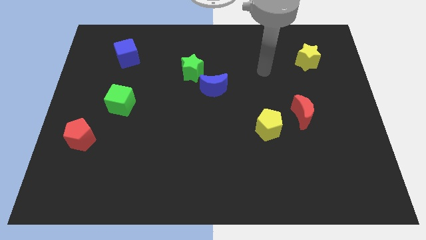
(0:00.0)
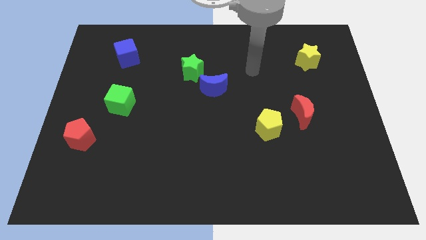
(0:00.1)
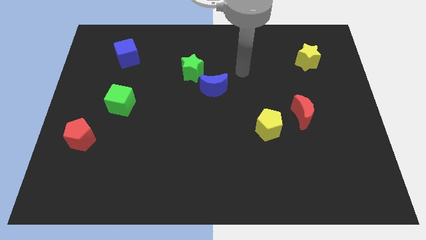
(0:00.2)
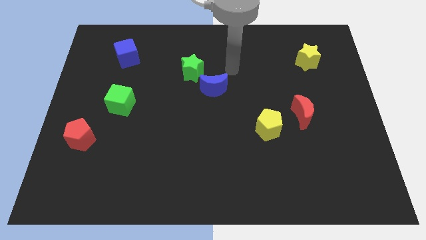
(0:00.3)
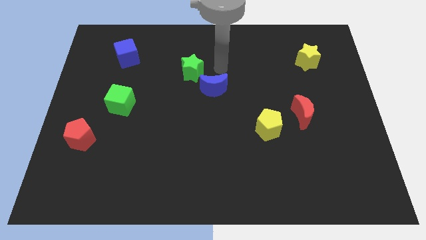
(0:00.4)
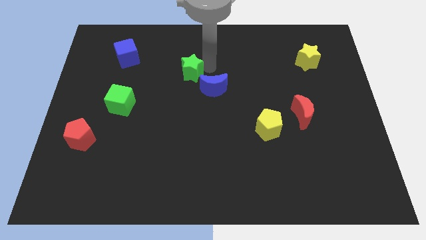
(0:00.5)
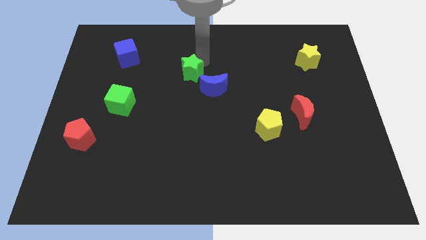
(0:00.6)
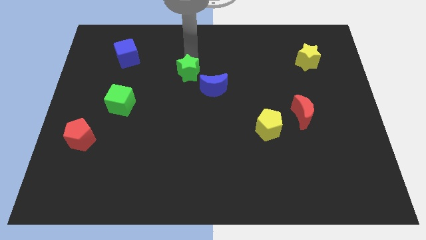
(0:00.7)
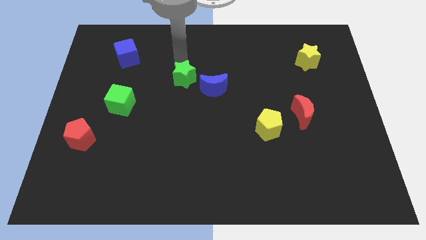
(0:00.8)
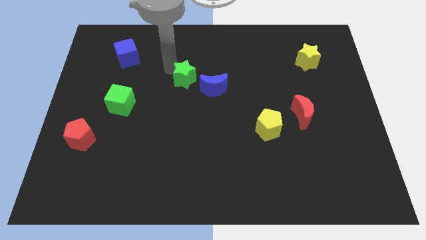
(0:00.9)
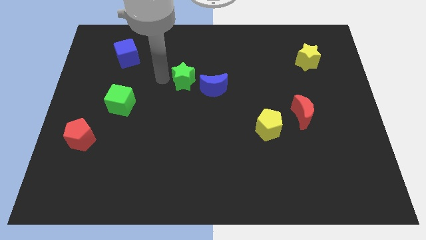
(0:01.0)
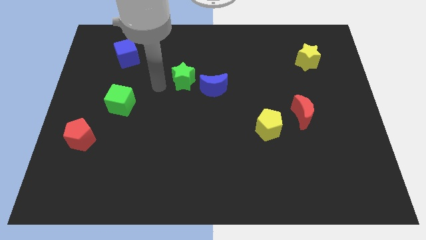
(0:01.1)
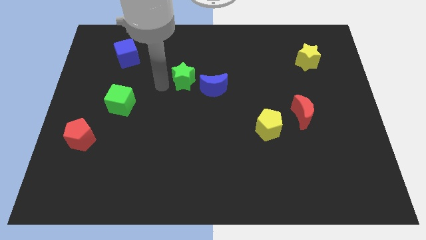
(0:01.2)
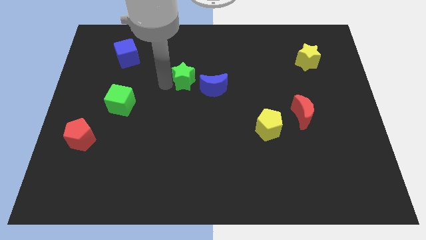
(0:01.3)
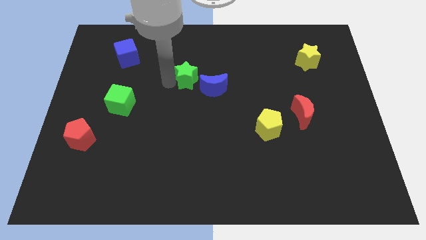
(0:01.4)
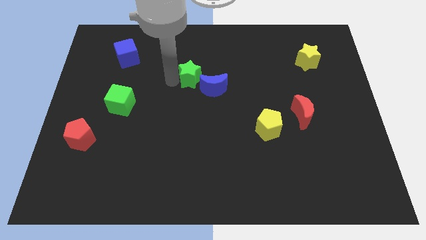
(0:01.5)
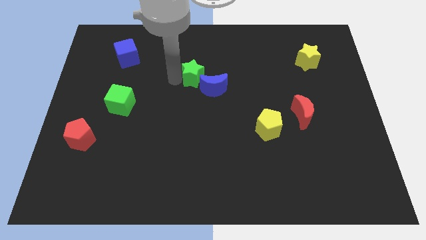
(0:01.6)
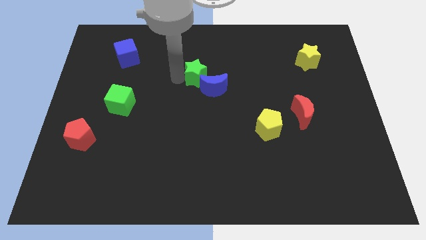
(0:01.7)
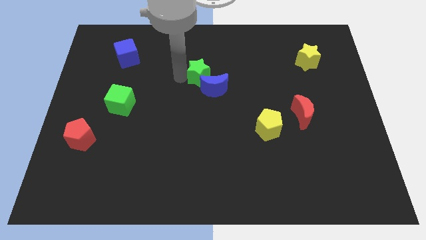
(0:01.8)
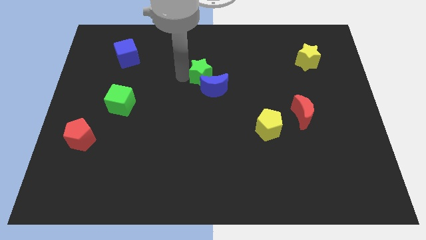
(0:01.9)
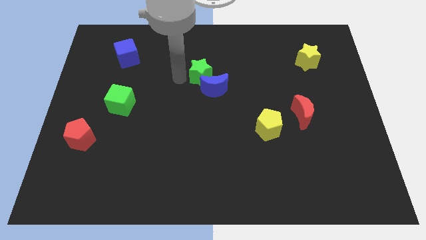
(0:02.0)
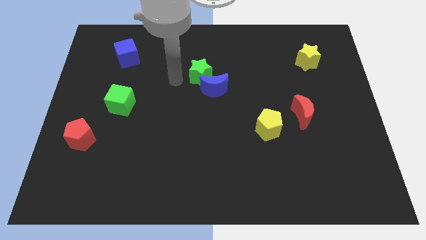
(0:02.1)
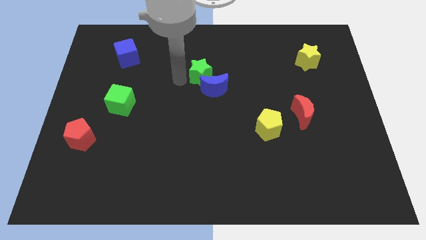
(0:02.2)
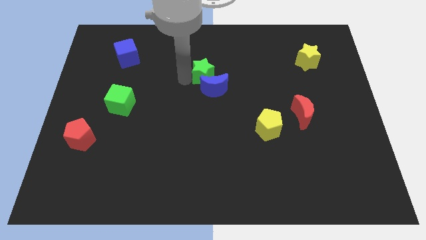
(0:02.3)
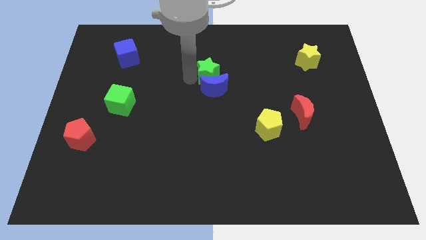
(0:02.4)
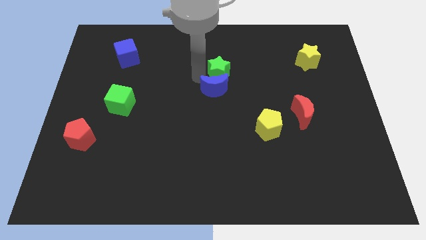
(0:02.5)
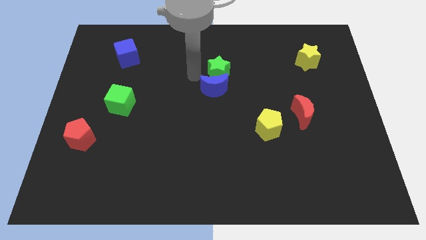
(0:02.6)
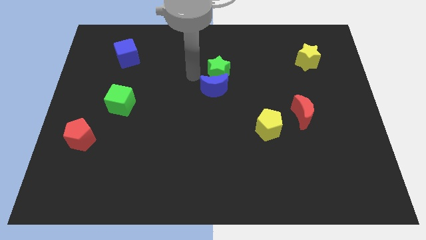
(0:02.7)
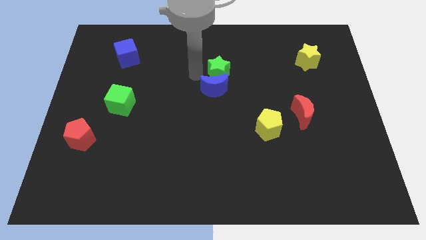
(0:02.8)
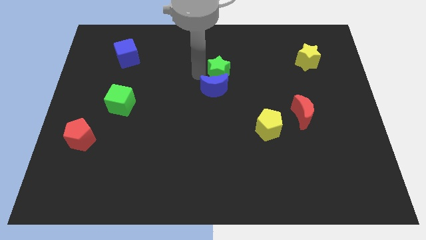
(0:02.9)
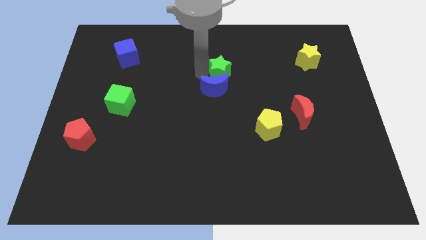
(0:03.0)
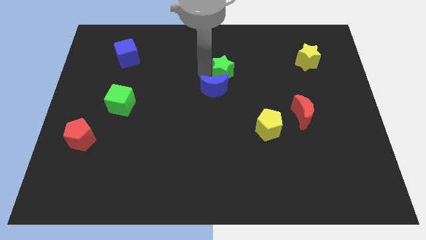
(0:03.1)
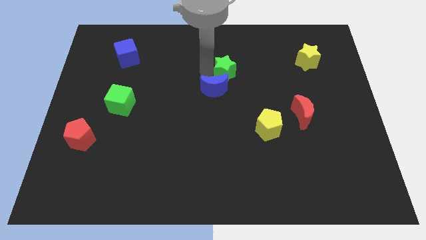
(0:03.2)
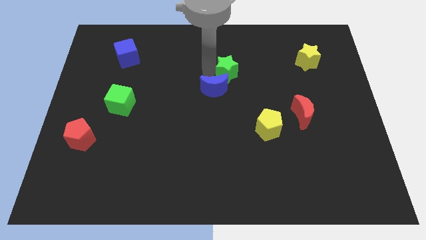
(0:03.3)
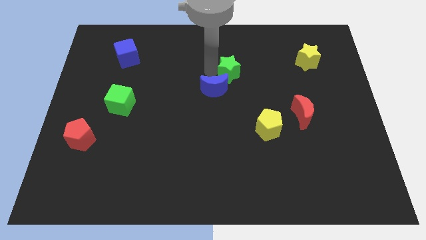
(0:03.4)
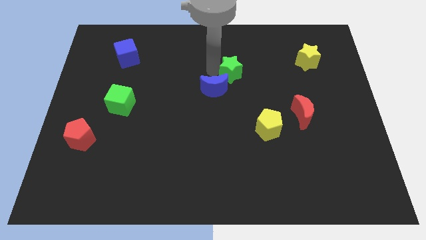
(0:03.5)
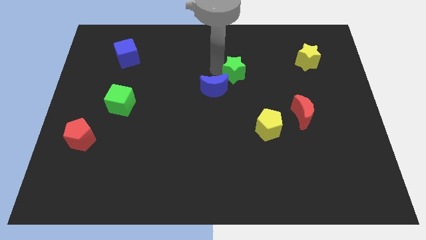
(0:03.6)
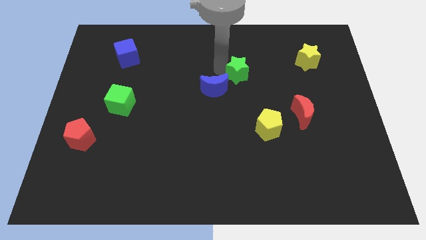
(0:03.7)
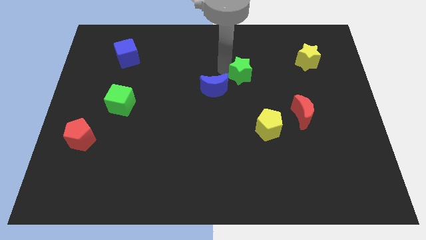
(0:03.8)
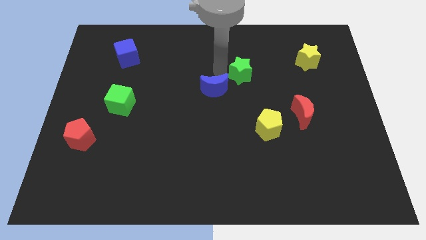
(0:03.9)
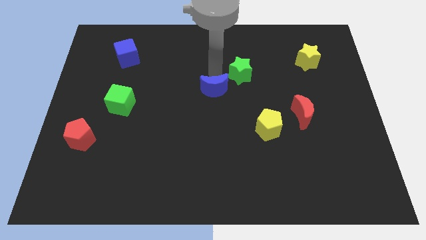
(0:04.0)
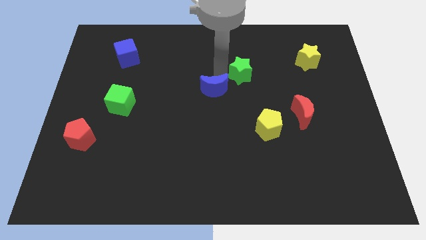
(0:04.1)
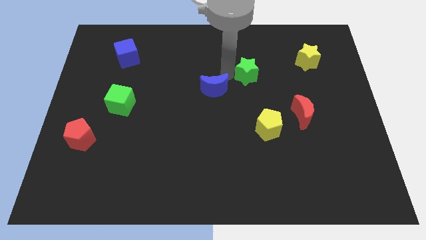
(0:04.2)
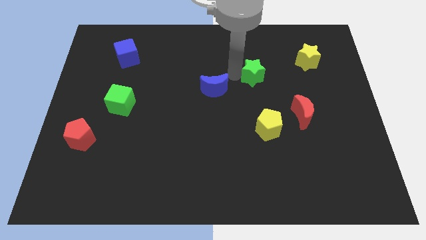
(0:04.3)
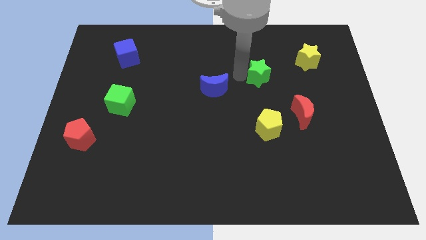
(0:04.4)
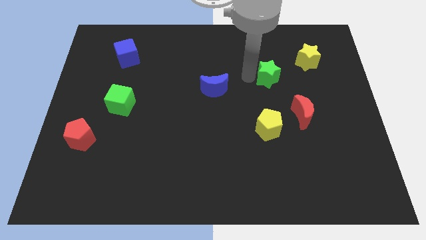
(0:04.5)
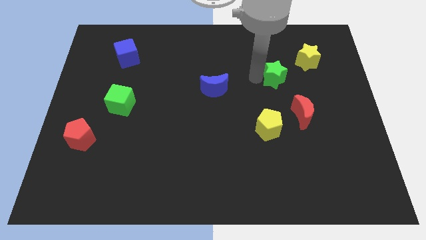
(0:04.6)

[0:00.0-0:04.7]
push the green star to the bottom left of the yellow star

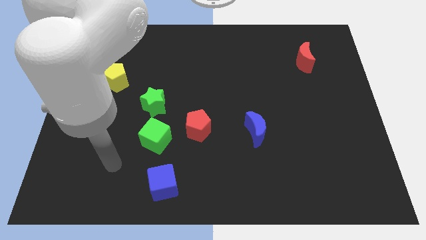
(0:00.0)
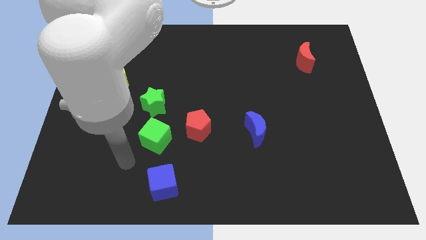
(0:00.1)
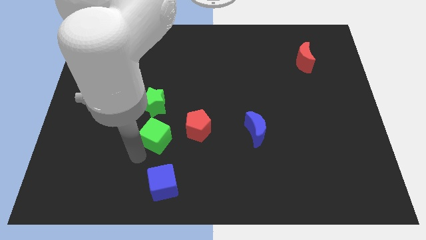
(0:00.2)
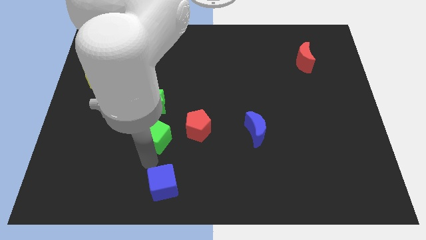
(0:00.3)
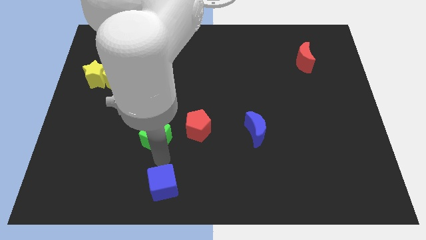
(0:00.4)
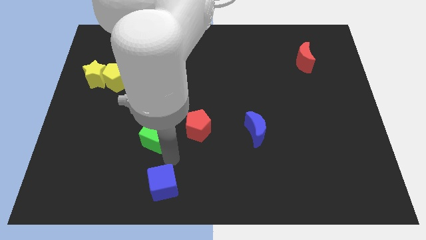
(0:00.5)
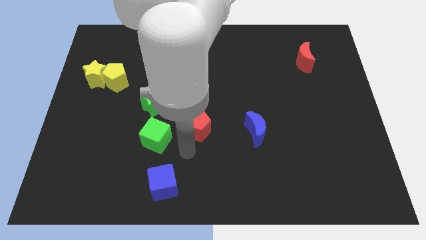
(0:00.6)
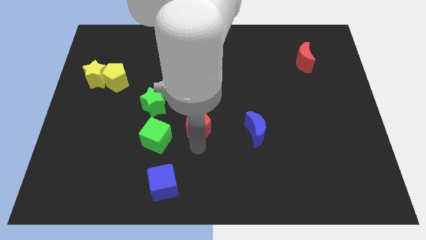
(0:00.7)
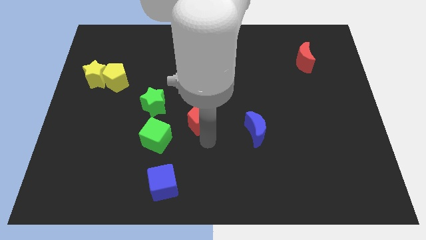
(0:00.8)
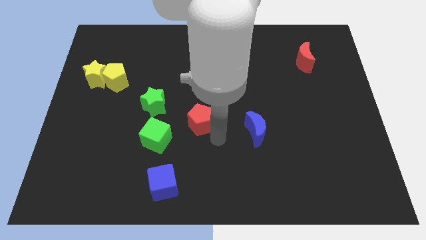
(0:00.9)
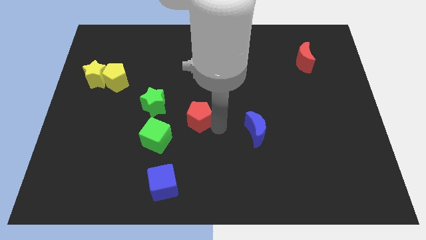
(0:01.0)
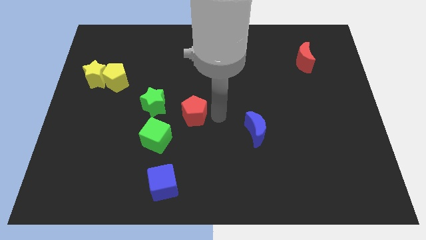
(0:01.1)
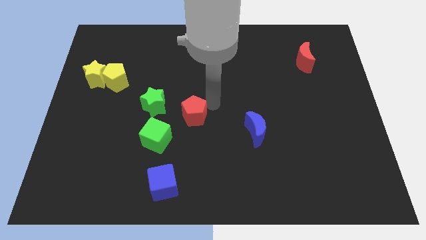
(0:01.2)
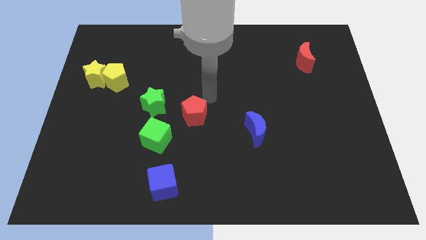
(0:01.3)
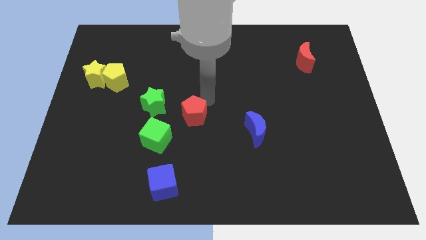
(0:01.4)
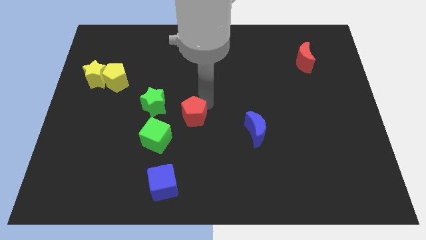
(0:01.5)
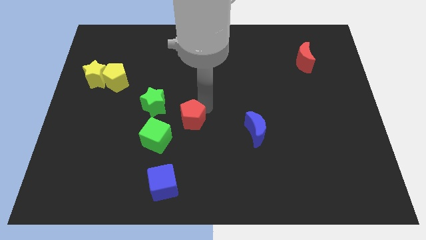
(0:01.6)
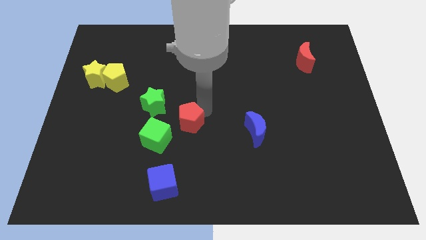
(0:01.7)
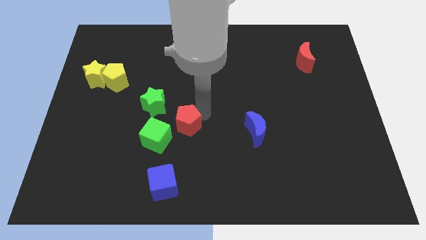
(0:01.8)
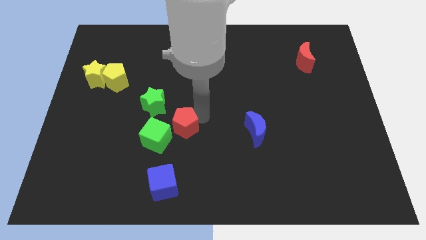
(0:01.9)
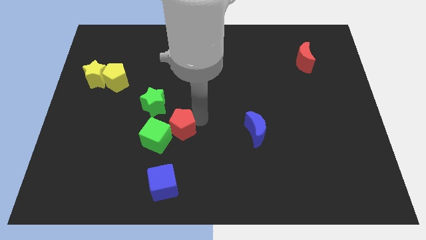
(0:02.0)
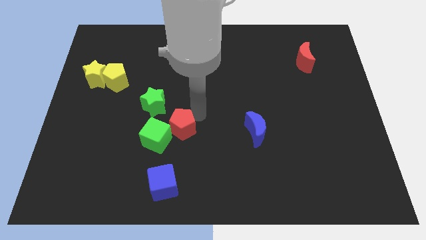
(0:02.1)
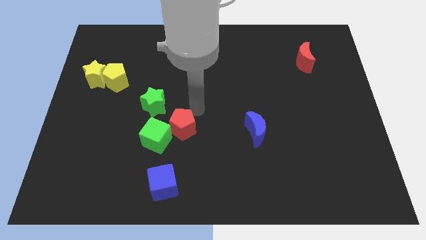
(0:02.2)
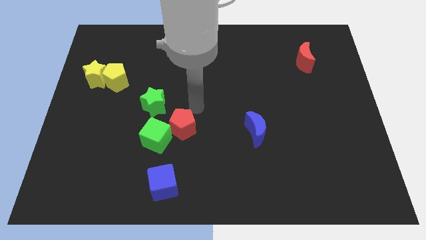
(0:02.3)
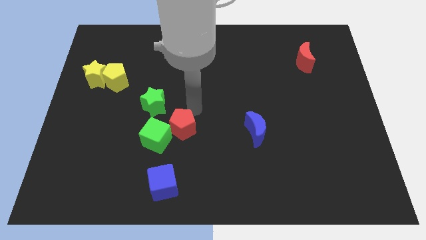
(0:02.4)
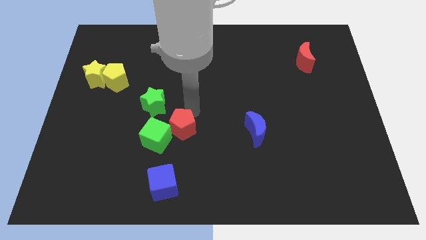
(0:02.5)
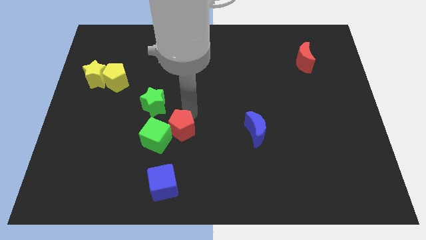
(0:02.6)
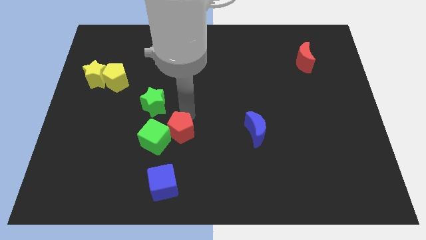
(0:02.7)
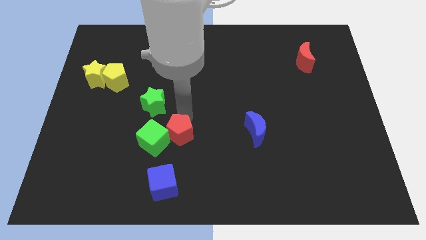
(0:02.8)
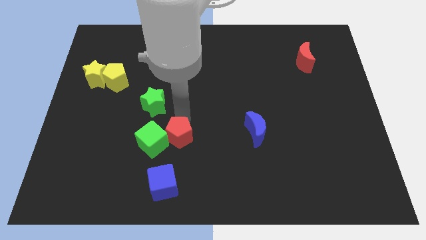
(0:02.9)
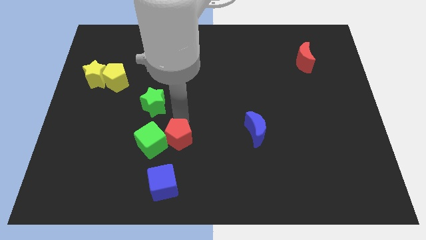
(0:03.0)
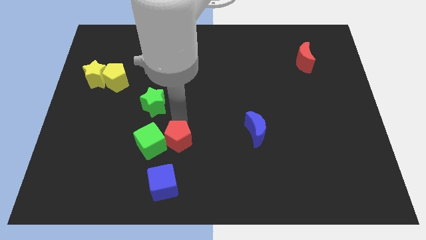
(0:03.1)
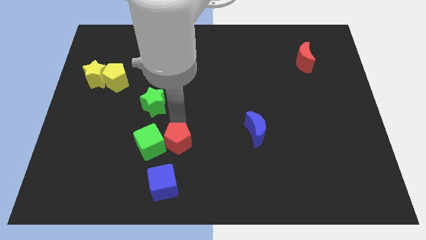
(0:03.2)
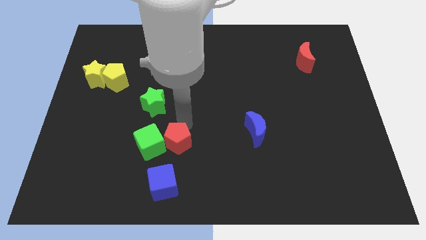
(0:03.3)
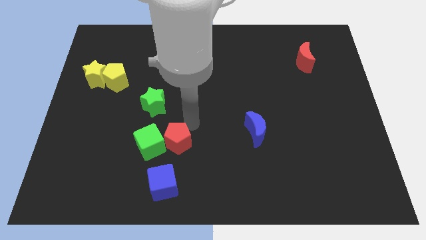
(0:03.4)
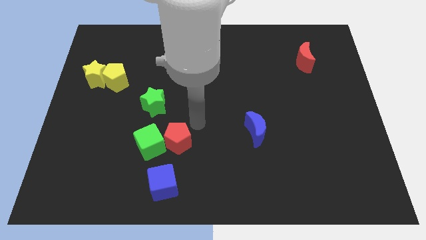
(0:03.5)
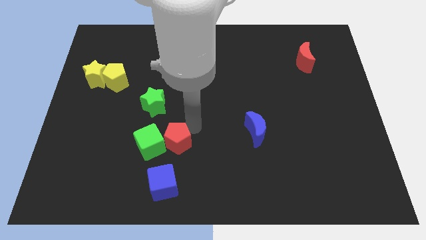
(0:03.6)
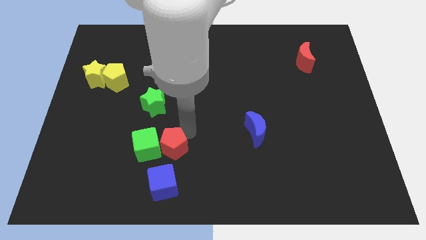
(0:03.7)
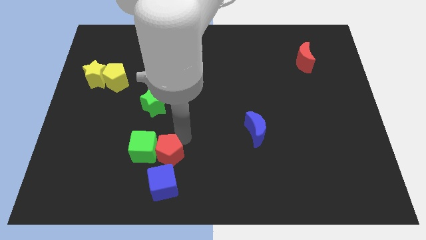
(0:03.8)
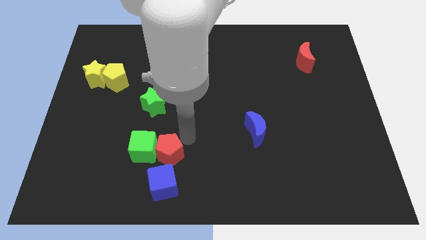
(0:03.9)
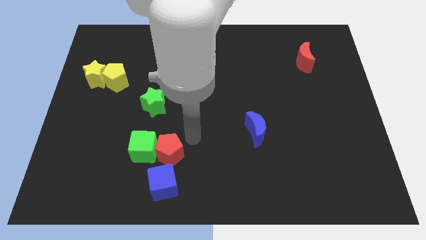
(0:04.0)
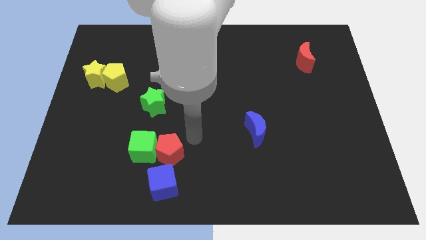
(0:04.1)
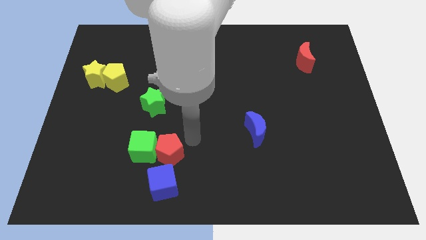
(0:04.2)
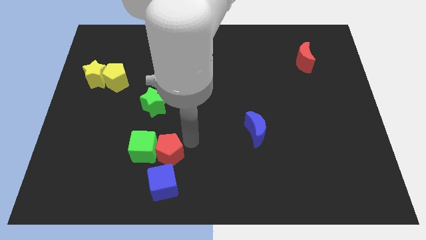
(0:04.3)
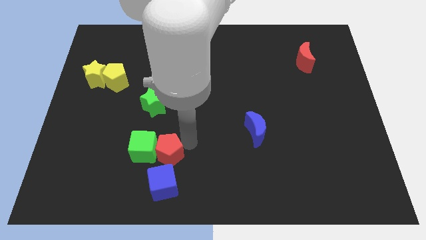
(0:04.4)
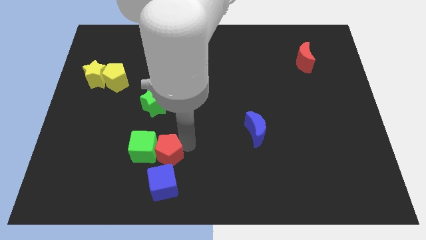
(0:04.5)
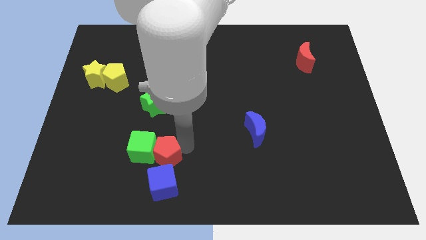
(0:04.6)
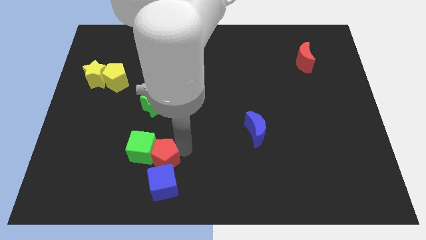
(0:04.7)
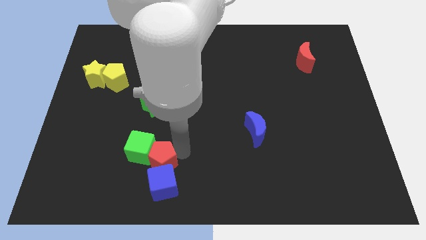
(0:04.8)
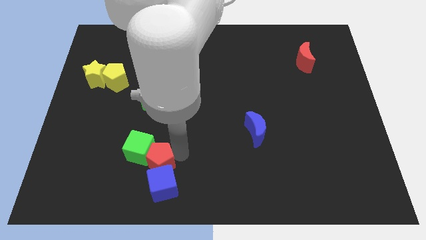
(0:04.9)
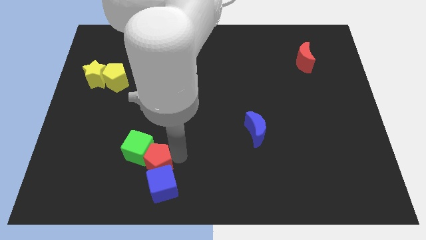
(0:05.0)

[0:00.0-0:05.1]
put the red pentagon below the green cube
